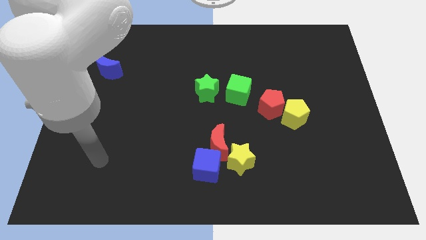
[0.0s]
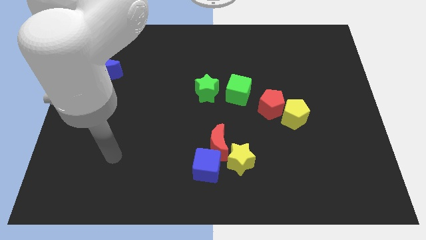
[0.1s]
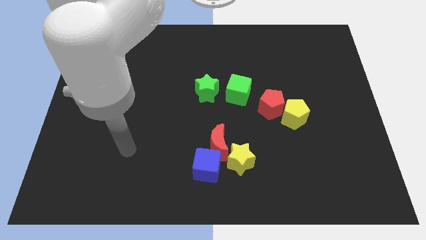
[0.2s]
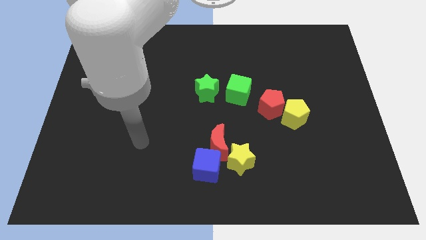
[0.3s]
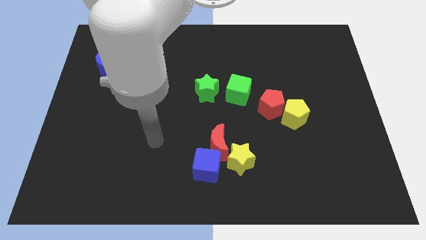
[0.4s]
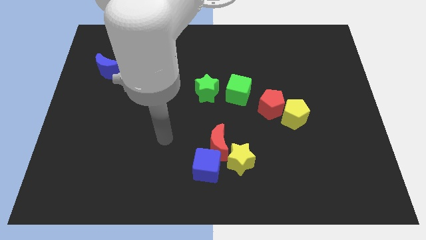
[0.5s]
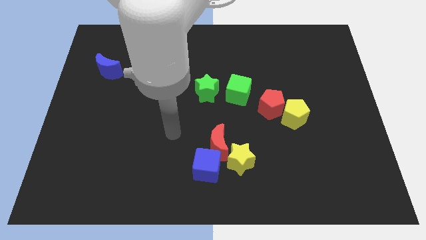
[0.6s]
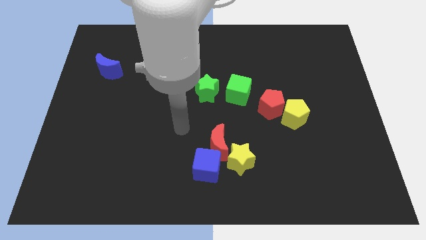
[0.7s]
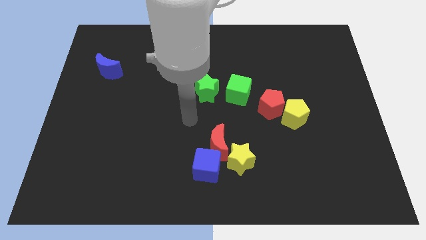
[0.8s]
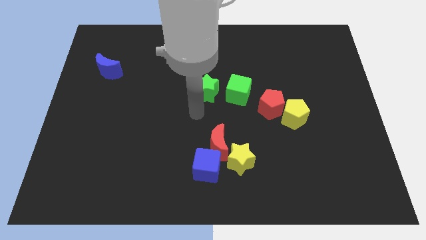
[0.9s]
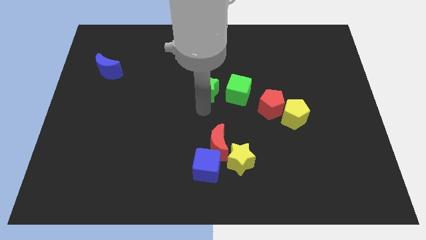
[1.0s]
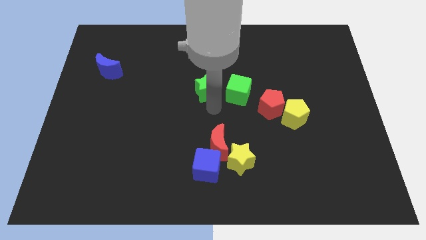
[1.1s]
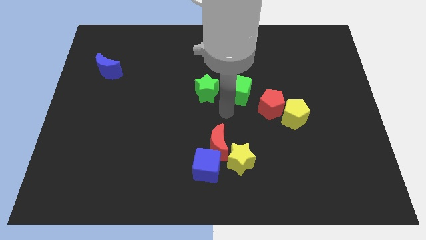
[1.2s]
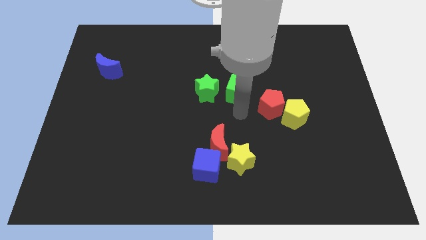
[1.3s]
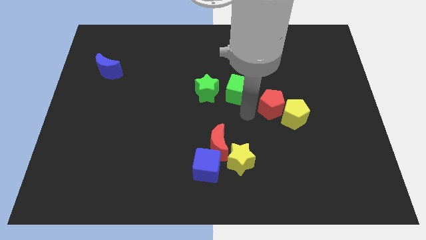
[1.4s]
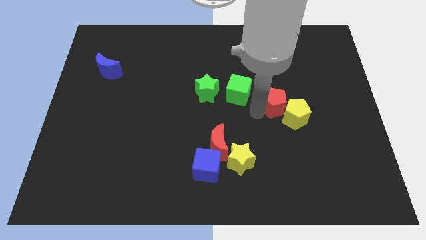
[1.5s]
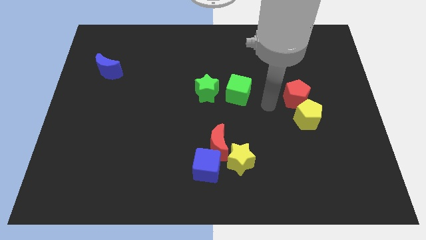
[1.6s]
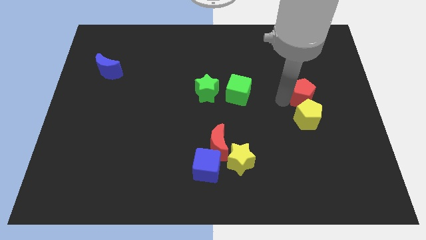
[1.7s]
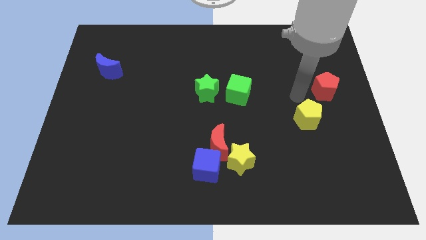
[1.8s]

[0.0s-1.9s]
move the yellow pentagon away from the red pentagon

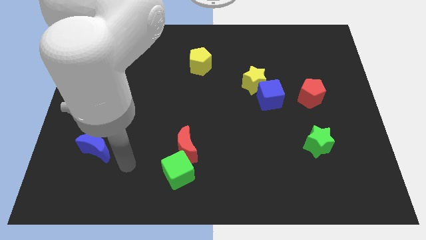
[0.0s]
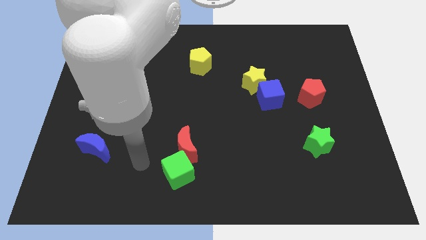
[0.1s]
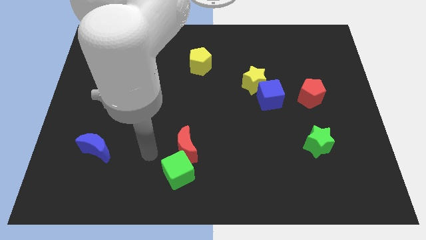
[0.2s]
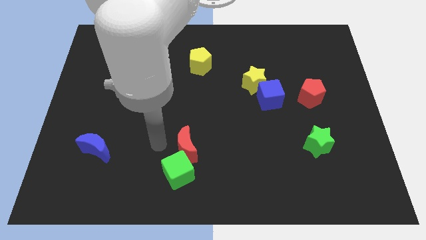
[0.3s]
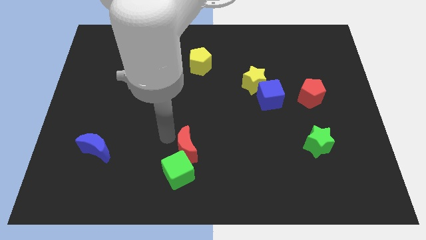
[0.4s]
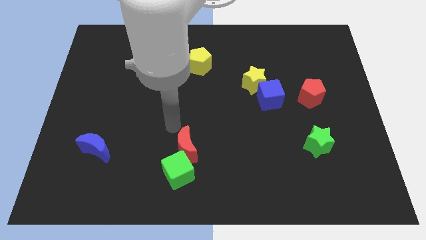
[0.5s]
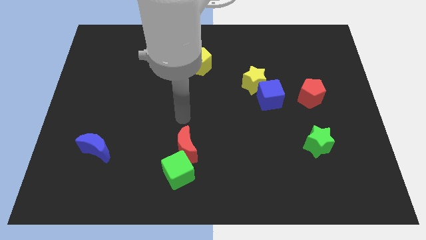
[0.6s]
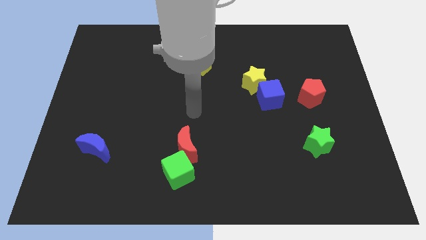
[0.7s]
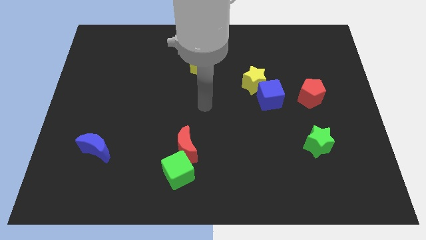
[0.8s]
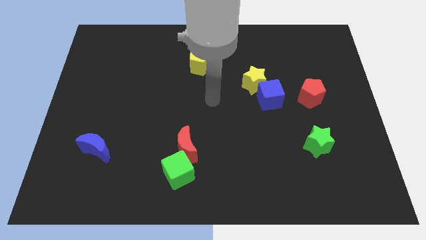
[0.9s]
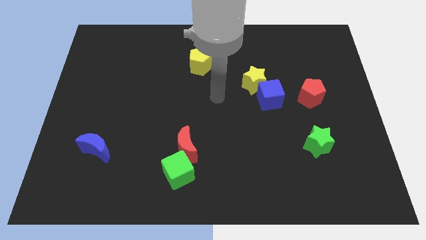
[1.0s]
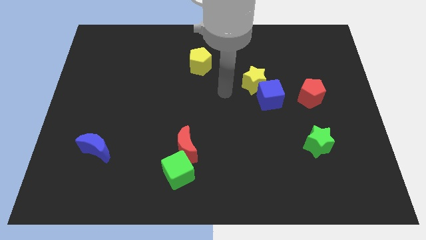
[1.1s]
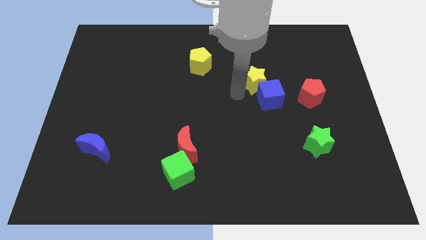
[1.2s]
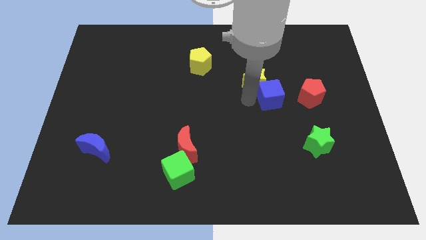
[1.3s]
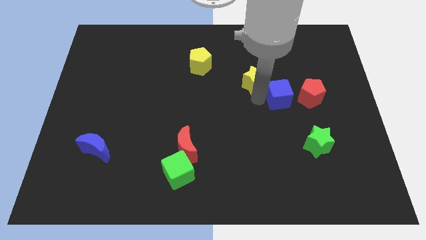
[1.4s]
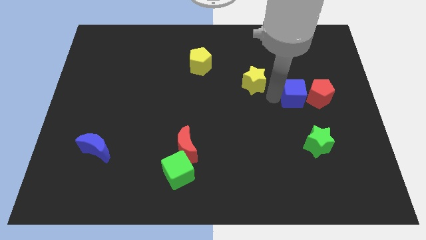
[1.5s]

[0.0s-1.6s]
move the yellow star away from the blue cube

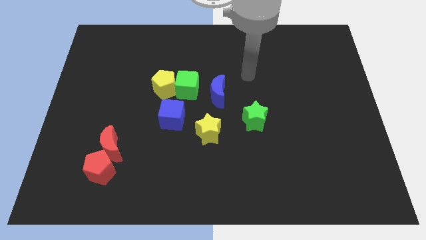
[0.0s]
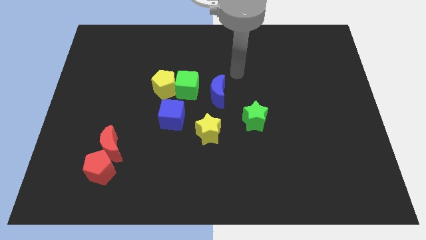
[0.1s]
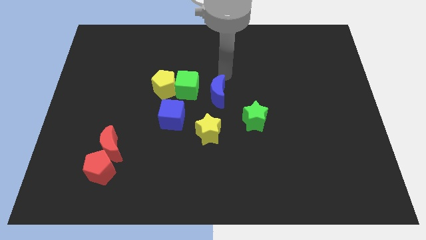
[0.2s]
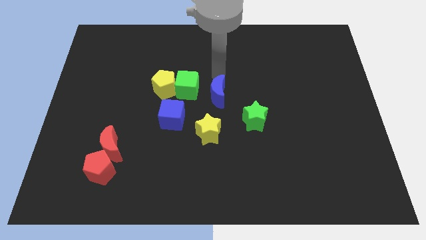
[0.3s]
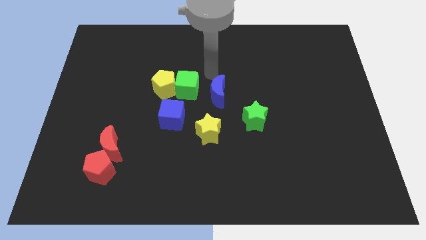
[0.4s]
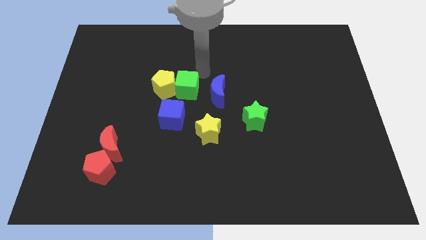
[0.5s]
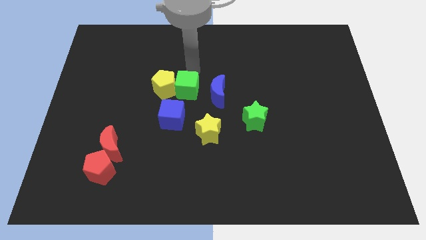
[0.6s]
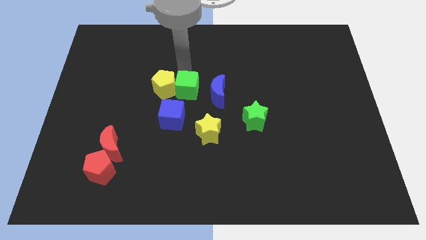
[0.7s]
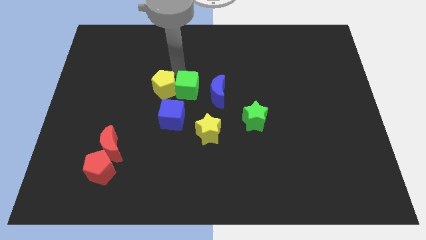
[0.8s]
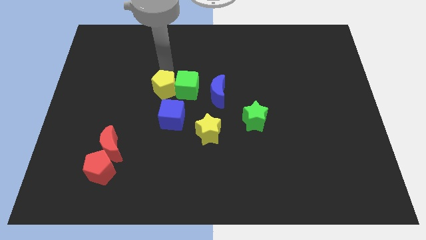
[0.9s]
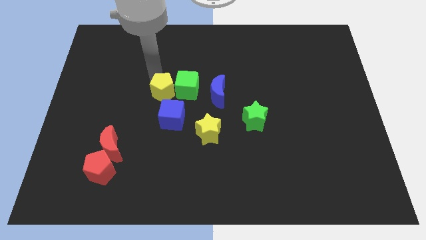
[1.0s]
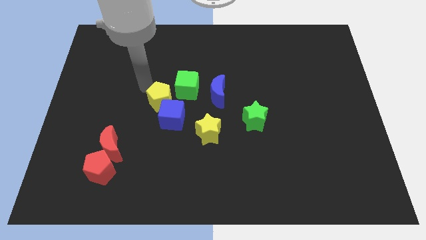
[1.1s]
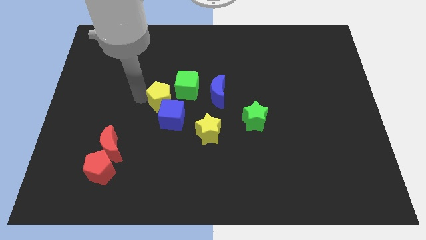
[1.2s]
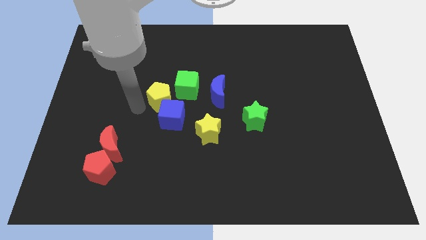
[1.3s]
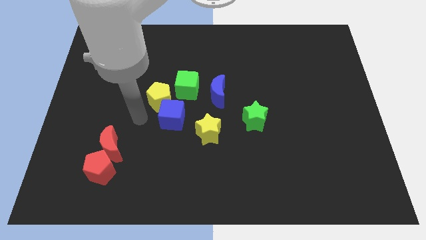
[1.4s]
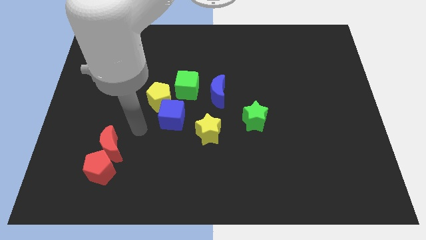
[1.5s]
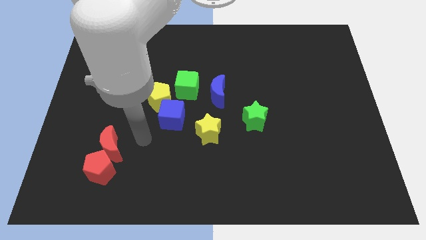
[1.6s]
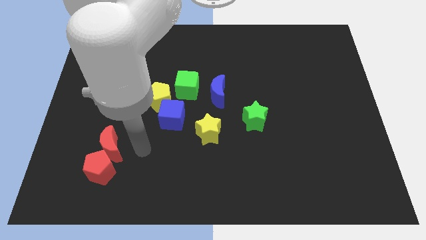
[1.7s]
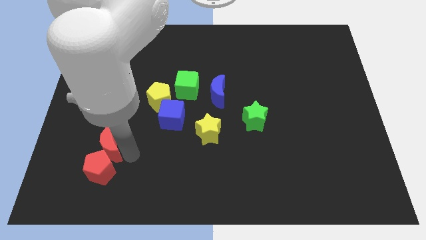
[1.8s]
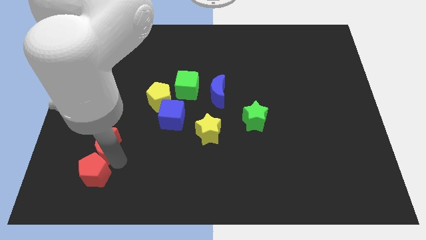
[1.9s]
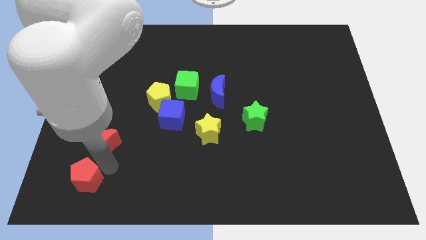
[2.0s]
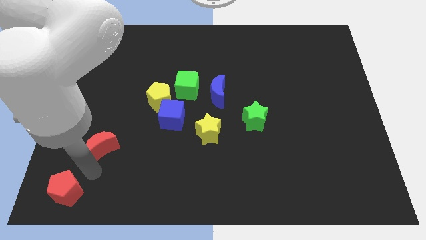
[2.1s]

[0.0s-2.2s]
pull the red moon apart from the red pentagon

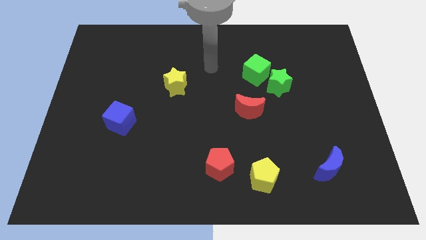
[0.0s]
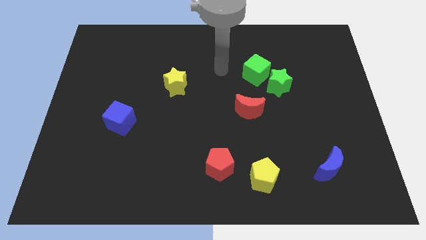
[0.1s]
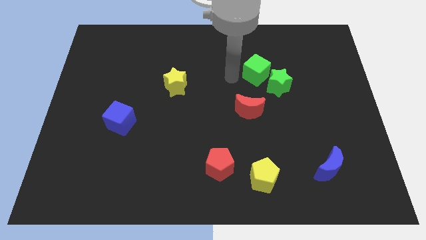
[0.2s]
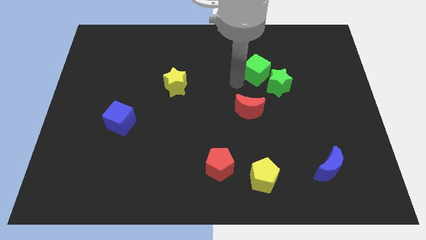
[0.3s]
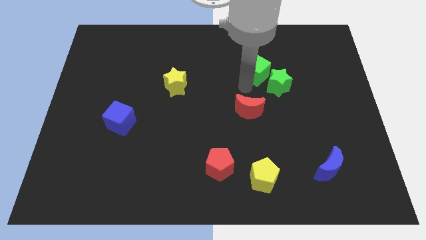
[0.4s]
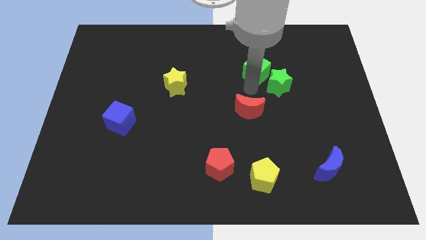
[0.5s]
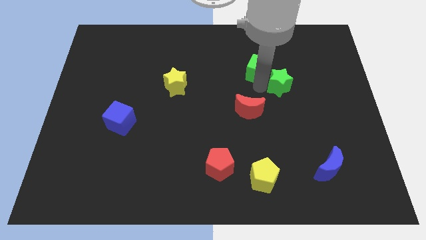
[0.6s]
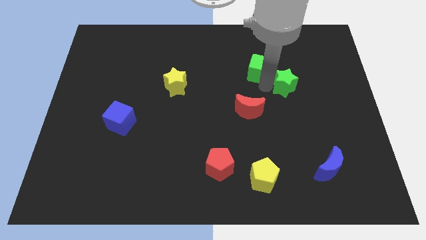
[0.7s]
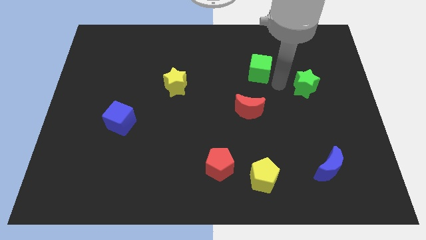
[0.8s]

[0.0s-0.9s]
move the green cube away from the green star

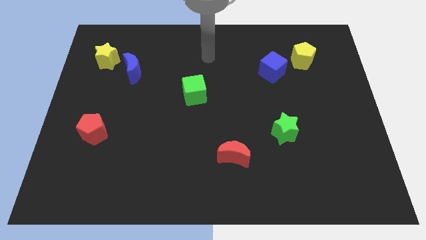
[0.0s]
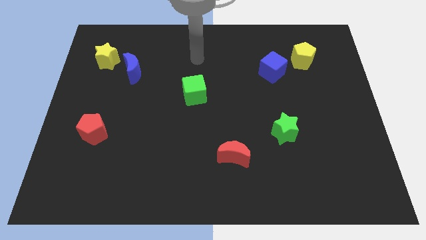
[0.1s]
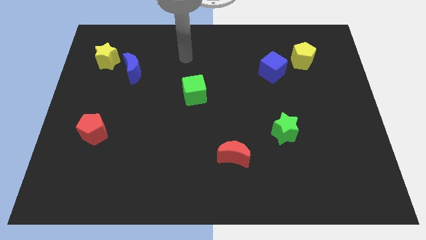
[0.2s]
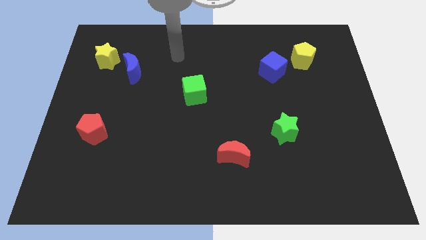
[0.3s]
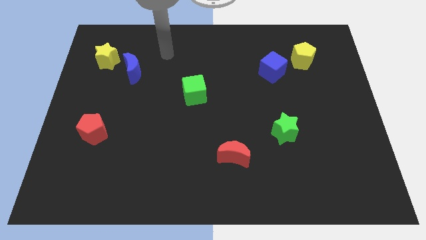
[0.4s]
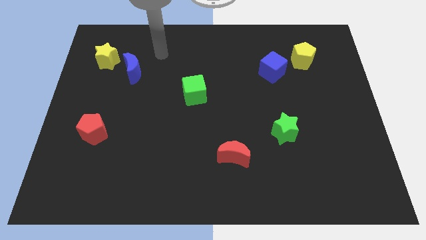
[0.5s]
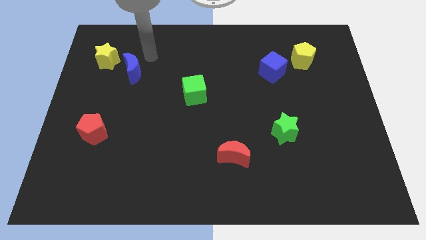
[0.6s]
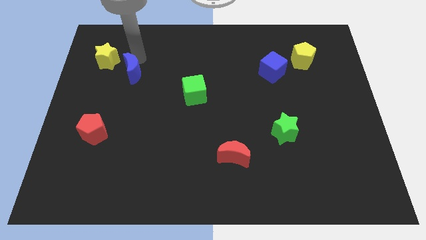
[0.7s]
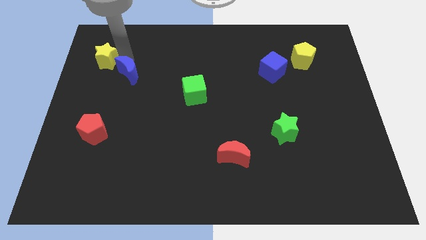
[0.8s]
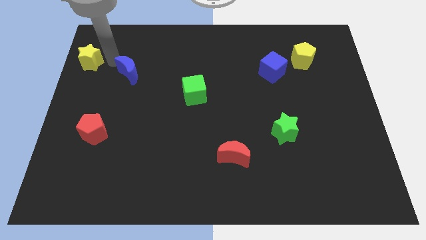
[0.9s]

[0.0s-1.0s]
move the blue moon away from the yellow star

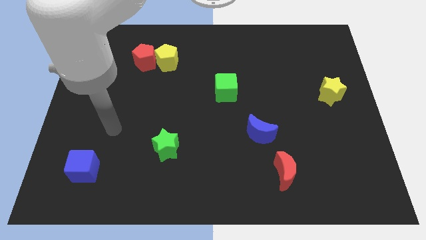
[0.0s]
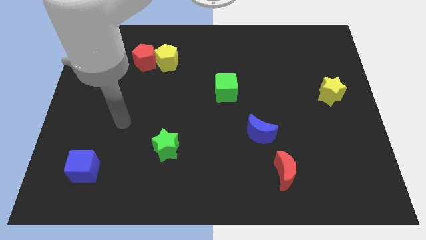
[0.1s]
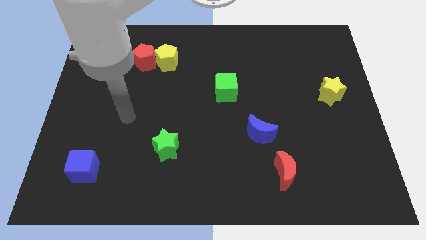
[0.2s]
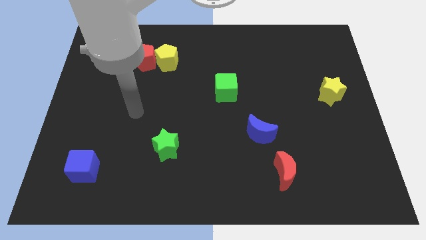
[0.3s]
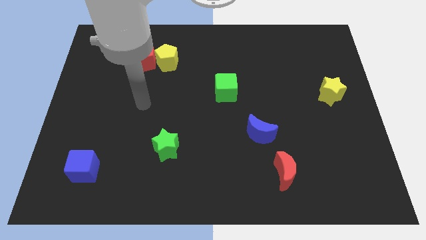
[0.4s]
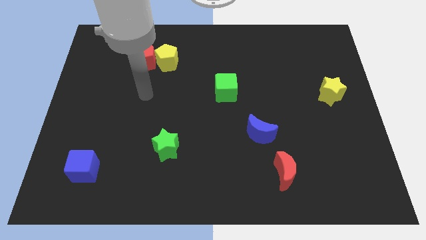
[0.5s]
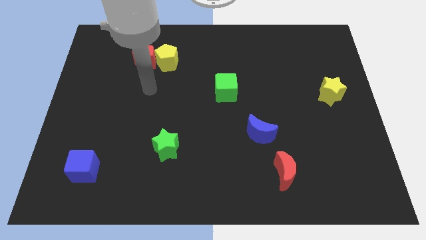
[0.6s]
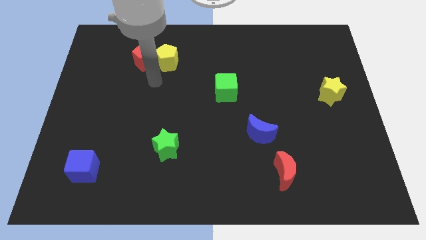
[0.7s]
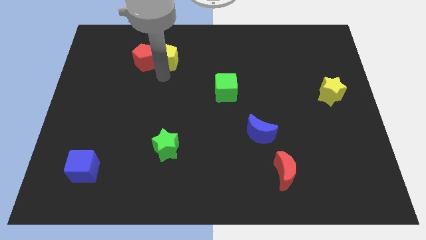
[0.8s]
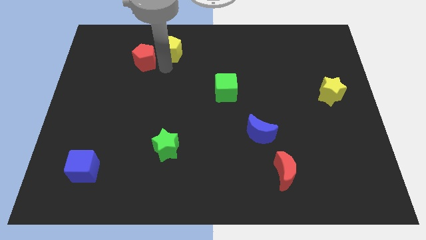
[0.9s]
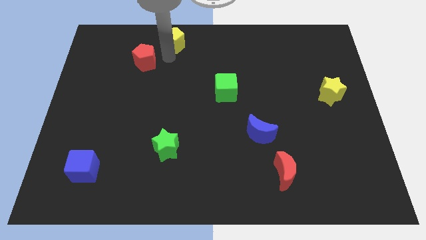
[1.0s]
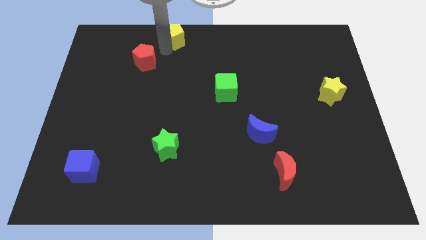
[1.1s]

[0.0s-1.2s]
move the red pentagon away from the yellow pentagon
